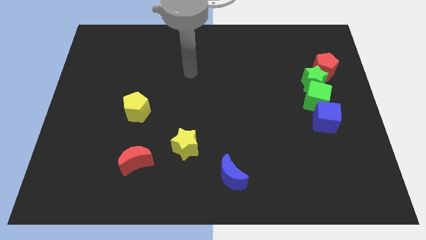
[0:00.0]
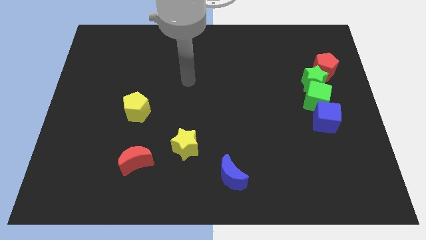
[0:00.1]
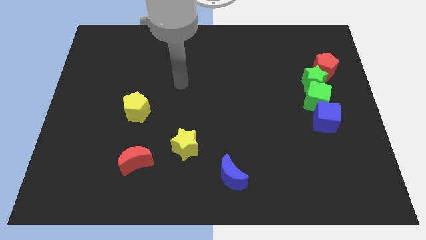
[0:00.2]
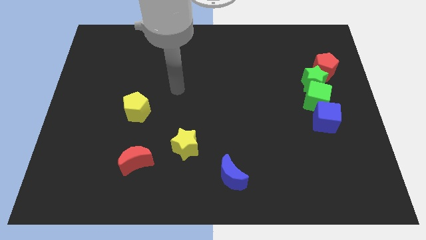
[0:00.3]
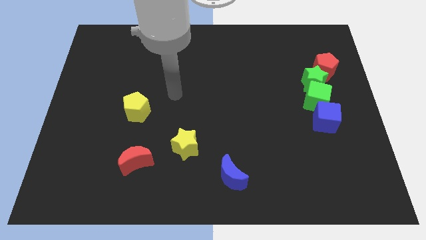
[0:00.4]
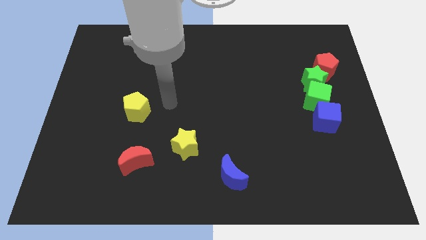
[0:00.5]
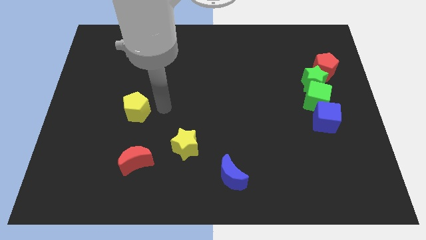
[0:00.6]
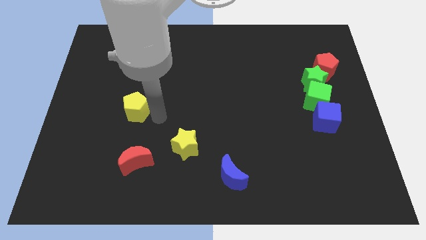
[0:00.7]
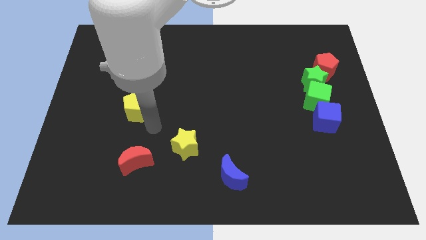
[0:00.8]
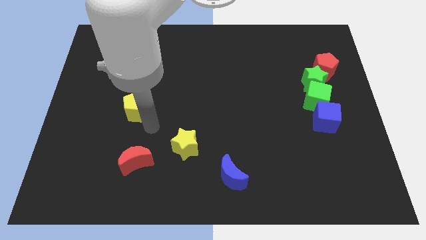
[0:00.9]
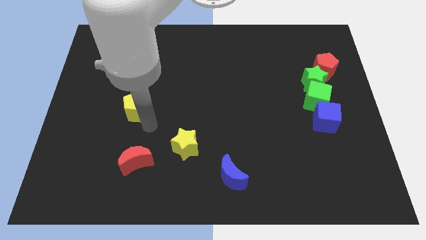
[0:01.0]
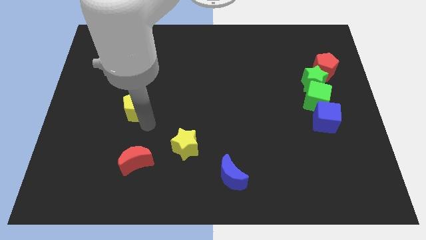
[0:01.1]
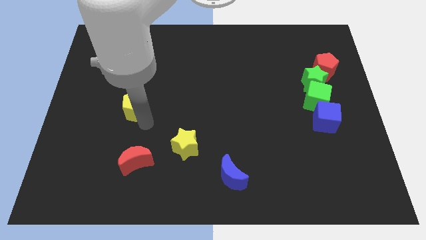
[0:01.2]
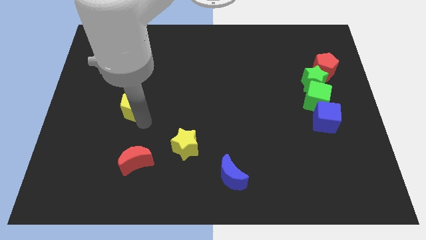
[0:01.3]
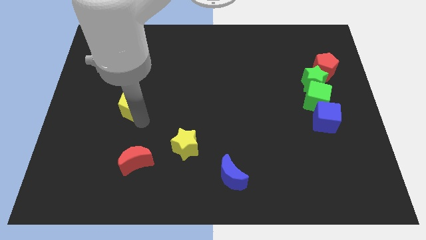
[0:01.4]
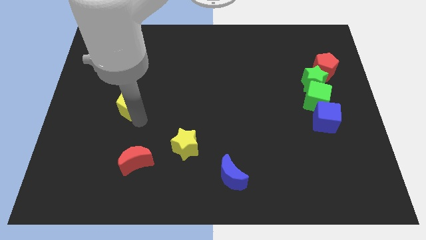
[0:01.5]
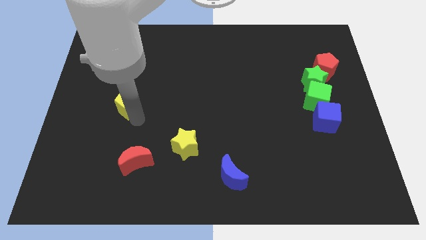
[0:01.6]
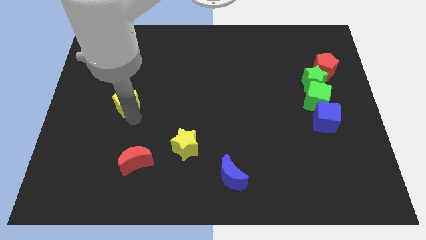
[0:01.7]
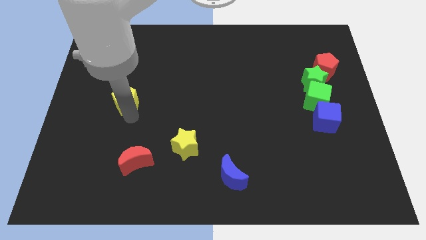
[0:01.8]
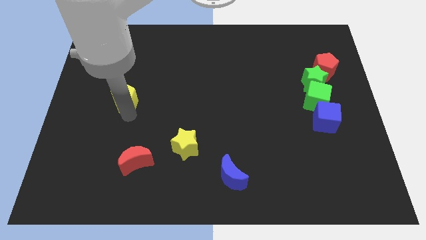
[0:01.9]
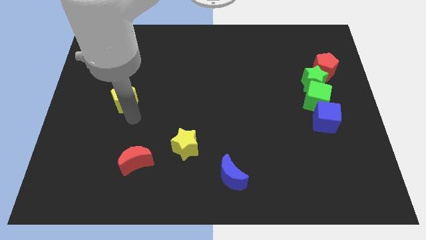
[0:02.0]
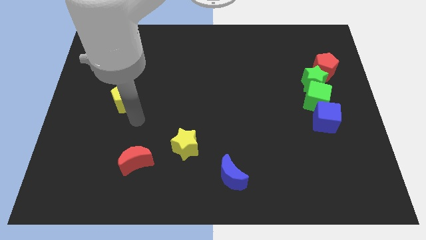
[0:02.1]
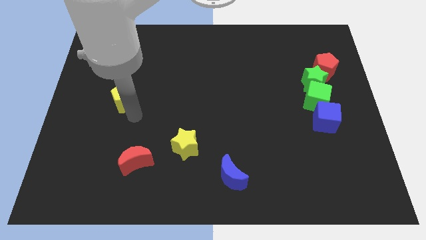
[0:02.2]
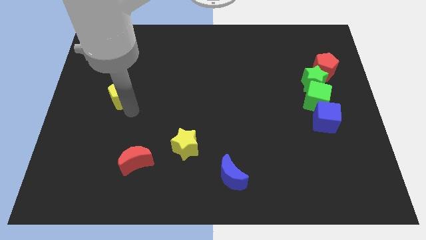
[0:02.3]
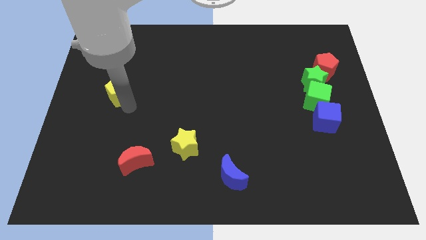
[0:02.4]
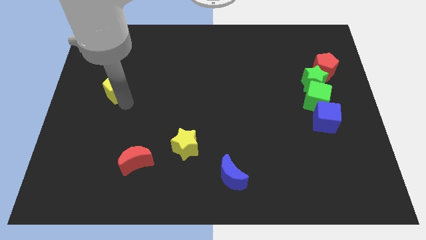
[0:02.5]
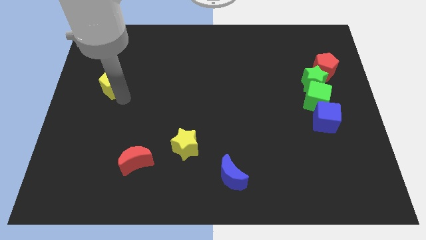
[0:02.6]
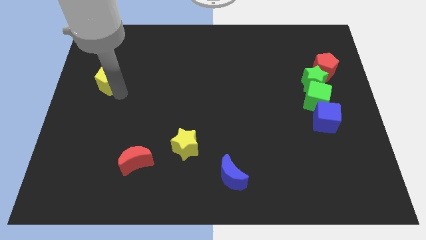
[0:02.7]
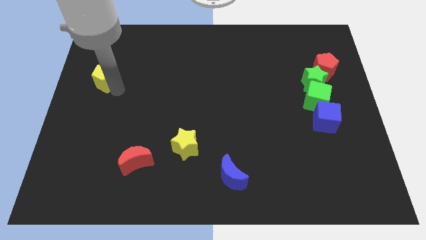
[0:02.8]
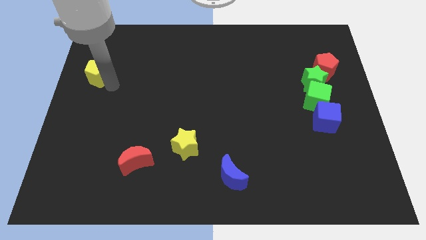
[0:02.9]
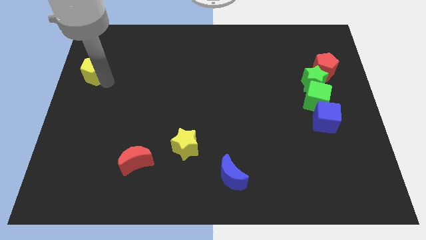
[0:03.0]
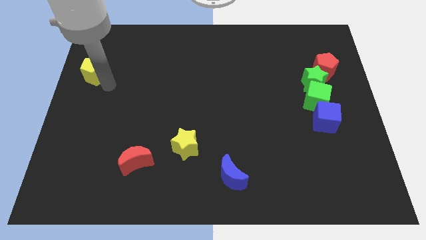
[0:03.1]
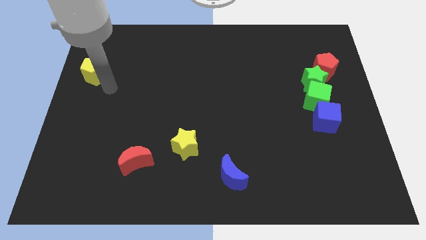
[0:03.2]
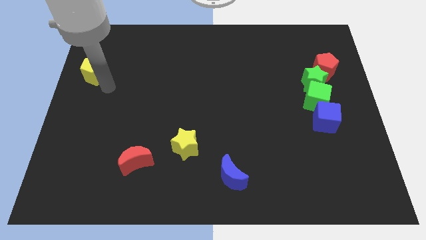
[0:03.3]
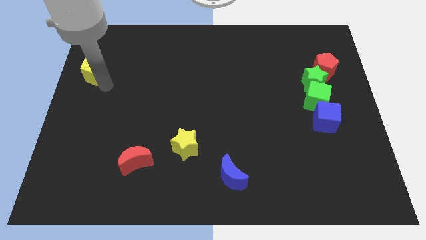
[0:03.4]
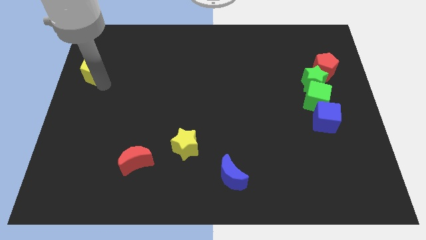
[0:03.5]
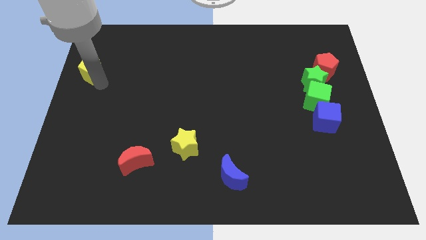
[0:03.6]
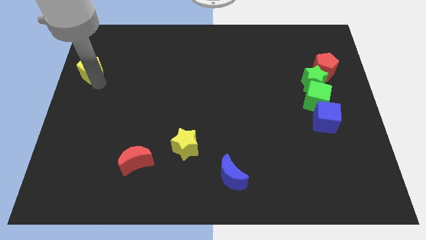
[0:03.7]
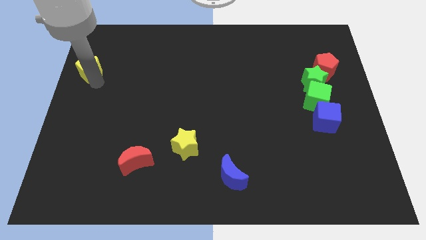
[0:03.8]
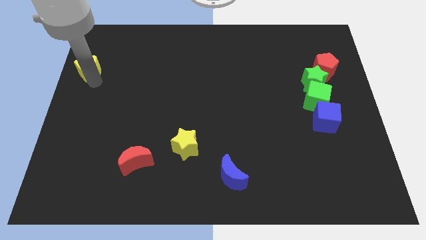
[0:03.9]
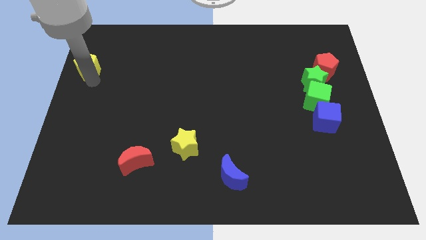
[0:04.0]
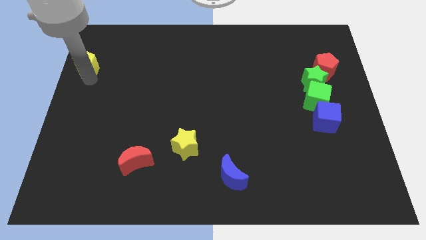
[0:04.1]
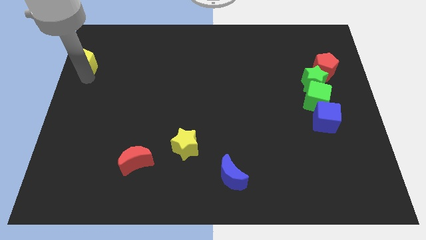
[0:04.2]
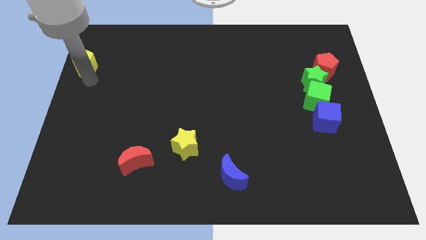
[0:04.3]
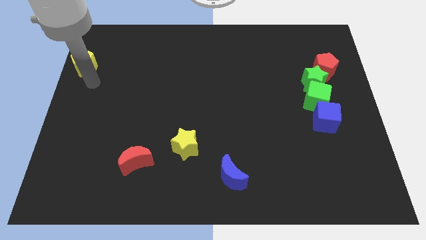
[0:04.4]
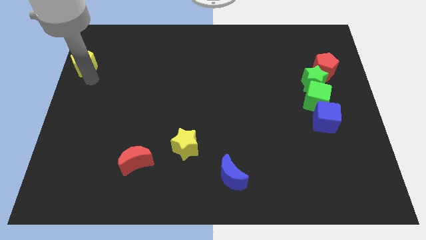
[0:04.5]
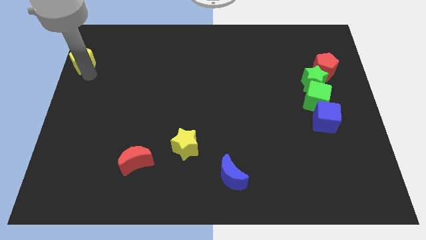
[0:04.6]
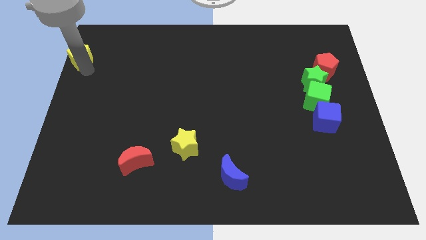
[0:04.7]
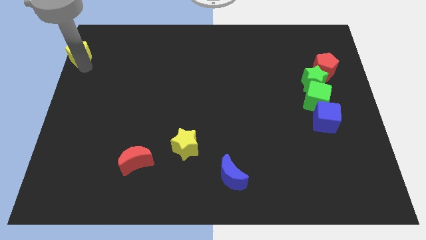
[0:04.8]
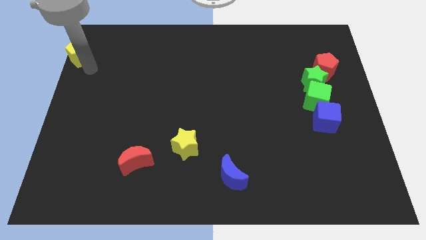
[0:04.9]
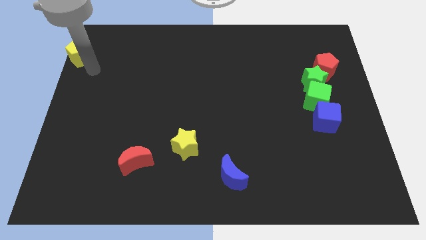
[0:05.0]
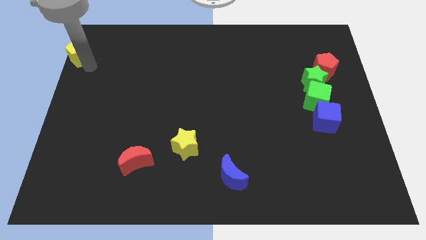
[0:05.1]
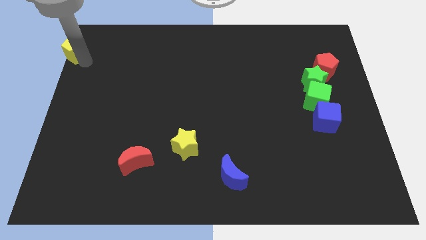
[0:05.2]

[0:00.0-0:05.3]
slide the yellow pentagon to the top left of the board

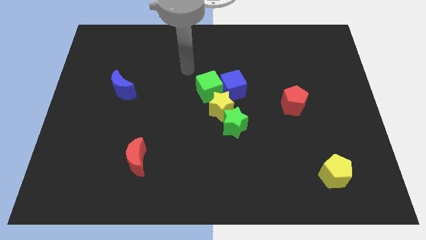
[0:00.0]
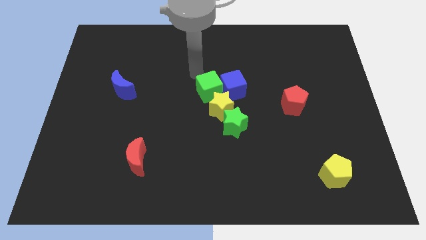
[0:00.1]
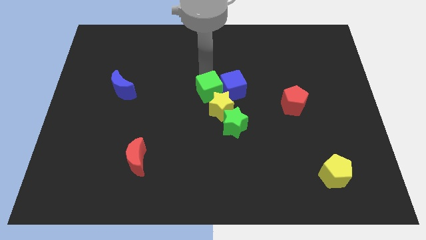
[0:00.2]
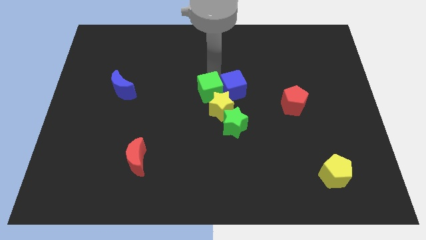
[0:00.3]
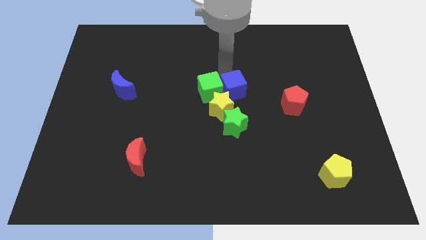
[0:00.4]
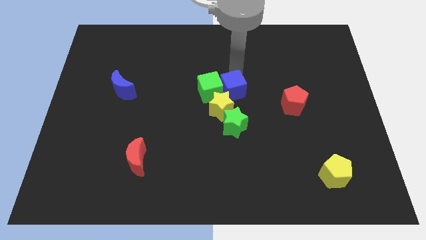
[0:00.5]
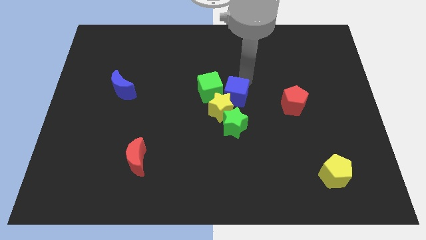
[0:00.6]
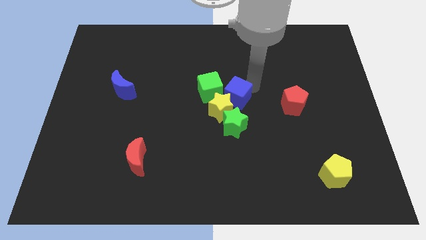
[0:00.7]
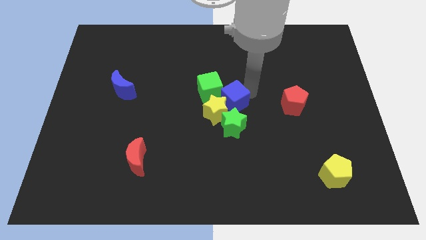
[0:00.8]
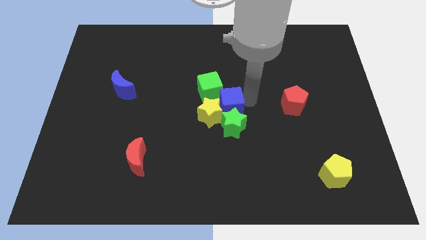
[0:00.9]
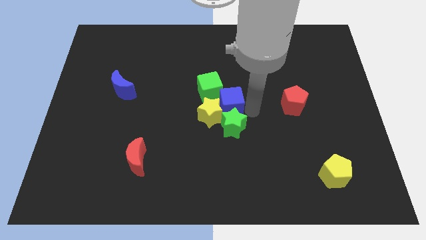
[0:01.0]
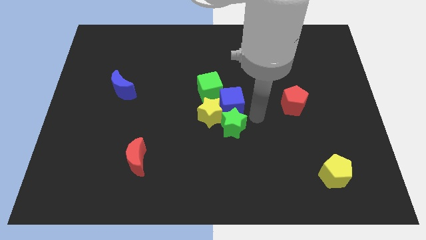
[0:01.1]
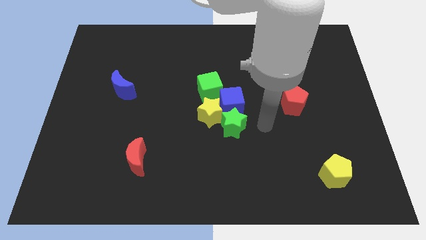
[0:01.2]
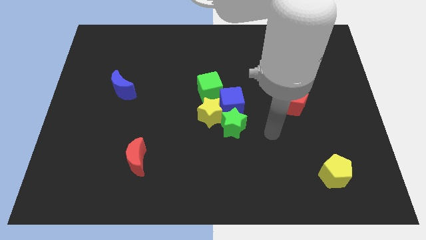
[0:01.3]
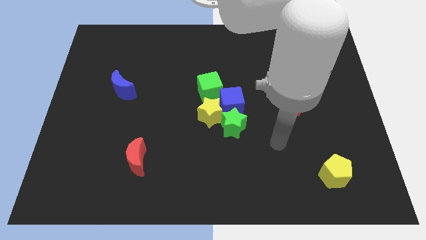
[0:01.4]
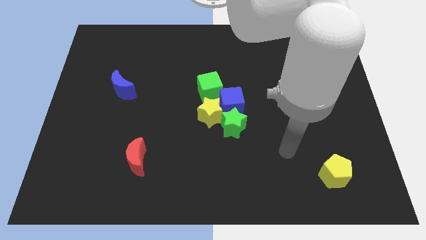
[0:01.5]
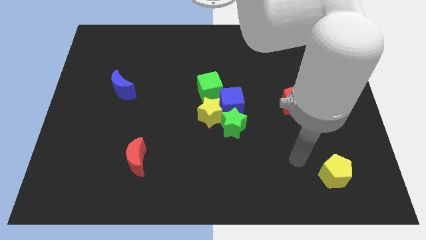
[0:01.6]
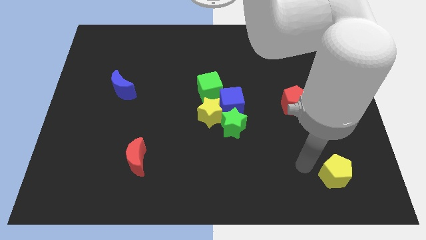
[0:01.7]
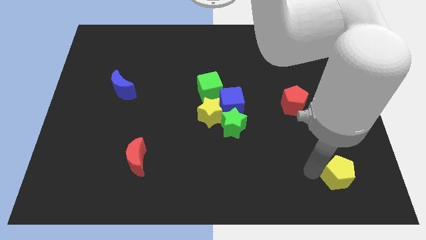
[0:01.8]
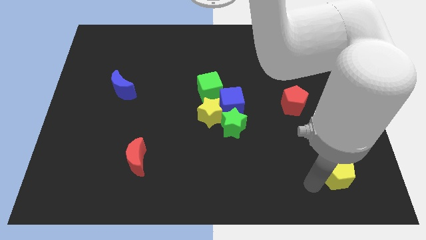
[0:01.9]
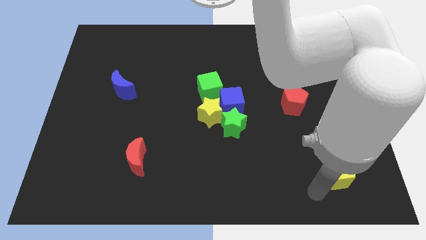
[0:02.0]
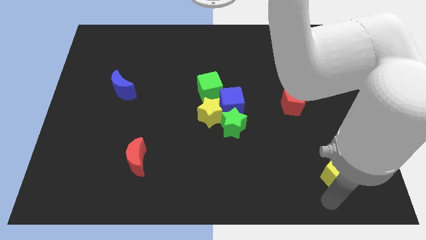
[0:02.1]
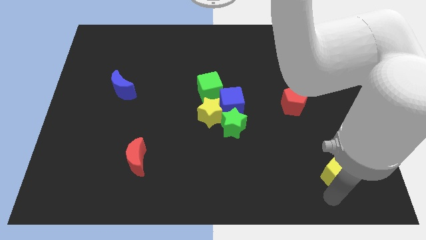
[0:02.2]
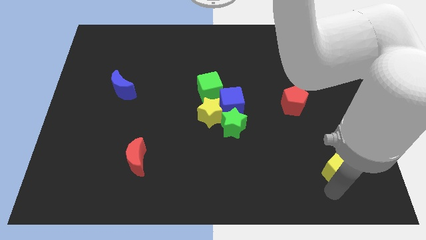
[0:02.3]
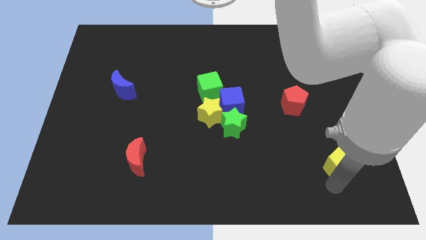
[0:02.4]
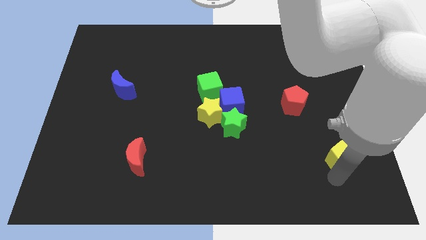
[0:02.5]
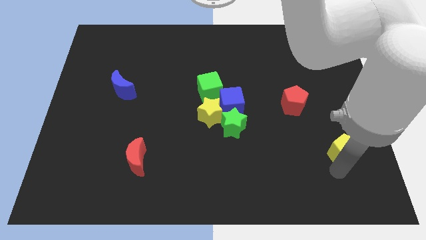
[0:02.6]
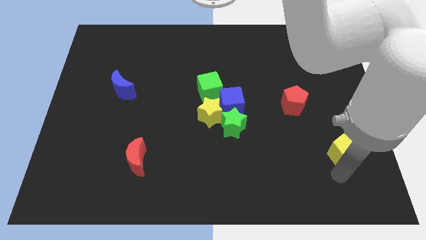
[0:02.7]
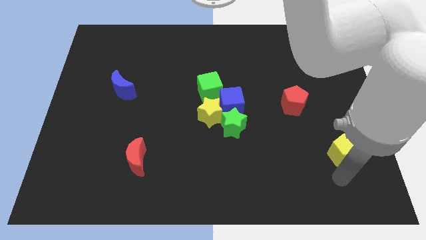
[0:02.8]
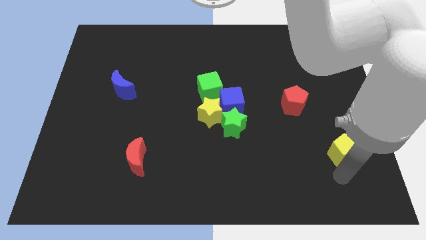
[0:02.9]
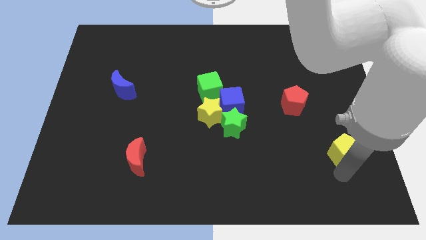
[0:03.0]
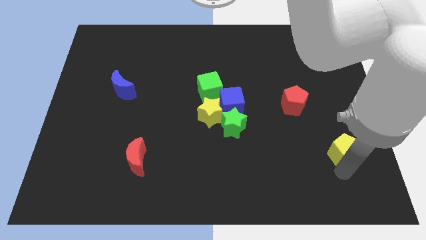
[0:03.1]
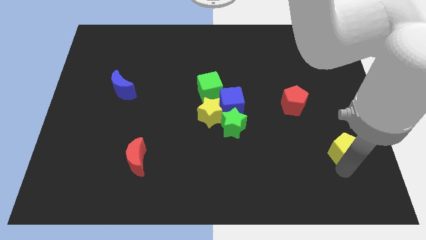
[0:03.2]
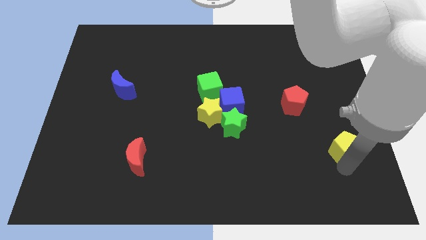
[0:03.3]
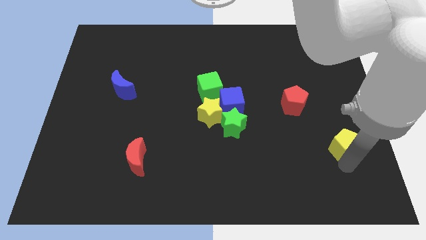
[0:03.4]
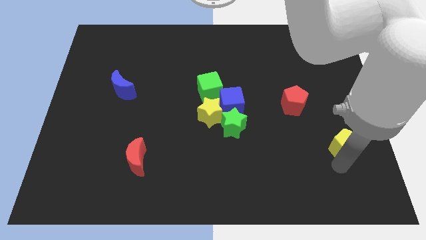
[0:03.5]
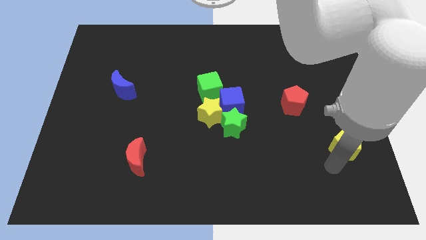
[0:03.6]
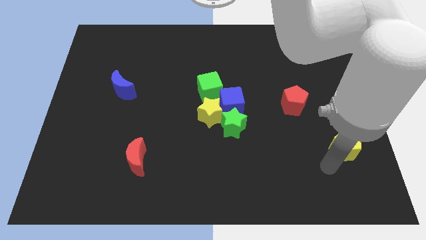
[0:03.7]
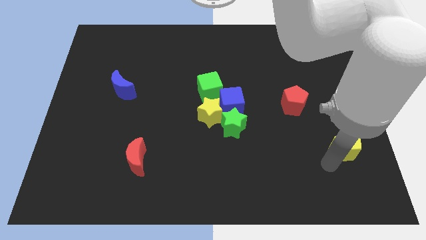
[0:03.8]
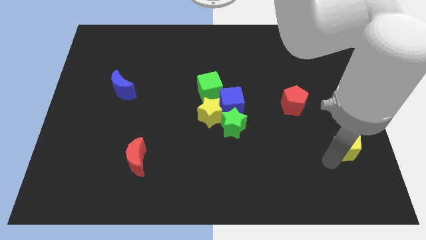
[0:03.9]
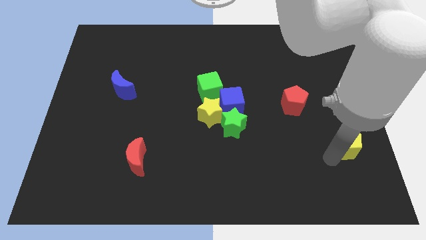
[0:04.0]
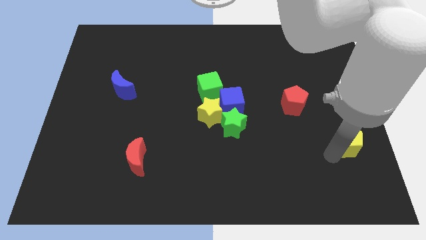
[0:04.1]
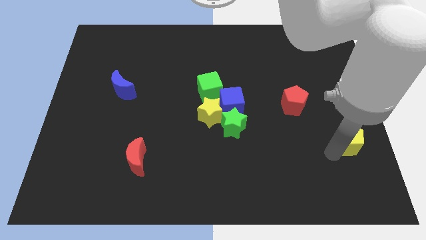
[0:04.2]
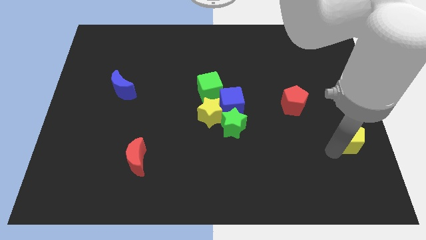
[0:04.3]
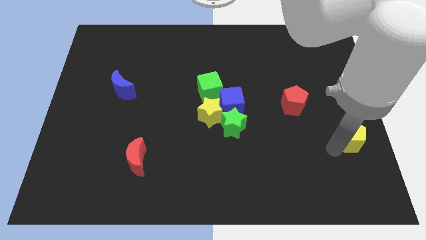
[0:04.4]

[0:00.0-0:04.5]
move the yellow pentagon to the center right
